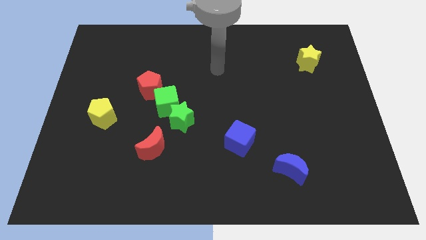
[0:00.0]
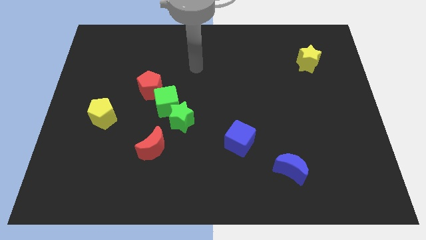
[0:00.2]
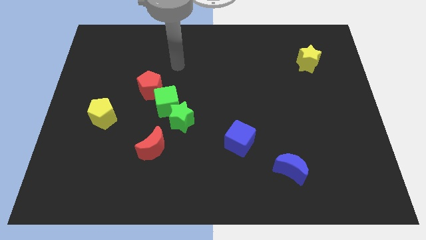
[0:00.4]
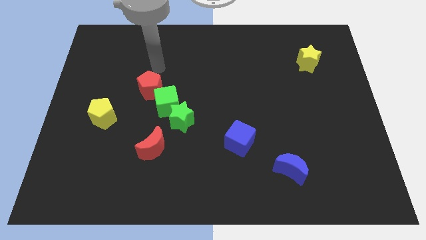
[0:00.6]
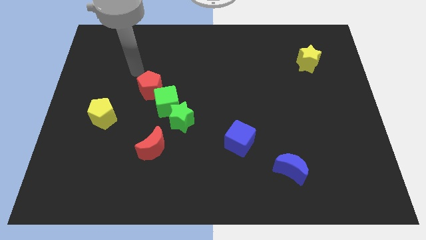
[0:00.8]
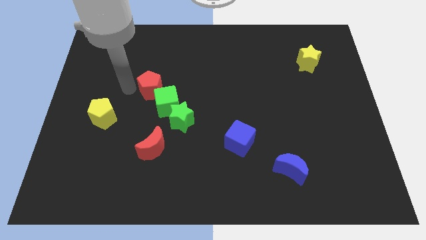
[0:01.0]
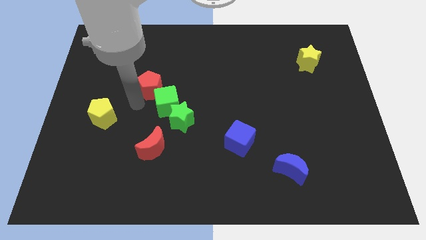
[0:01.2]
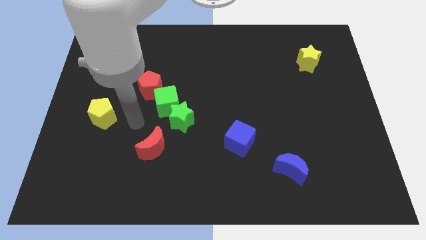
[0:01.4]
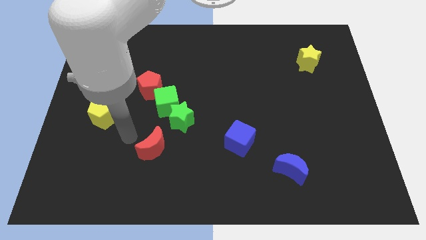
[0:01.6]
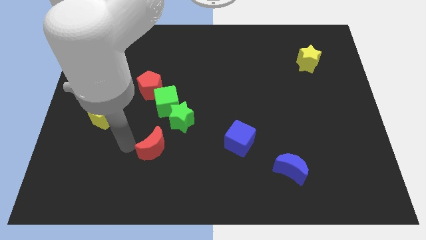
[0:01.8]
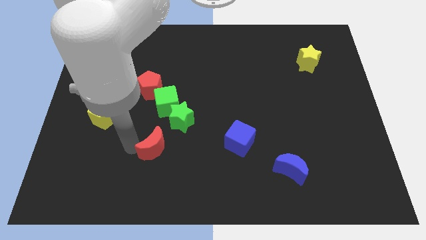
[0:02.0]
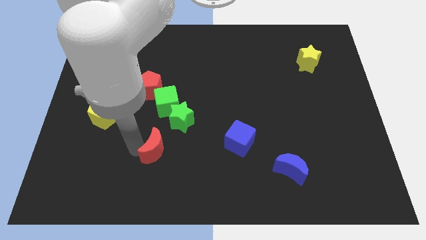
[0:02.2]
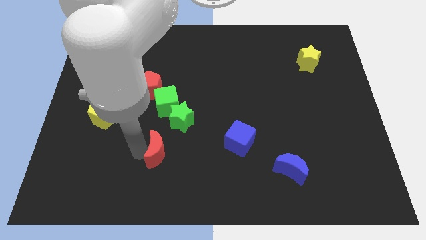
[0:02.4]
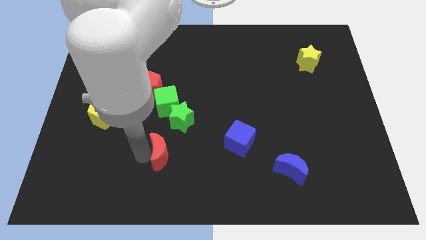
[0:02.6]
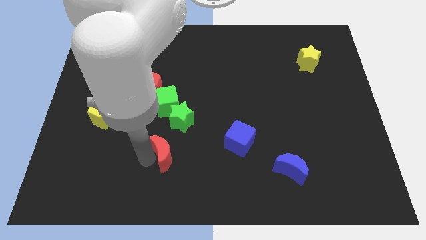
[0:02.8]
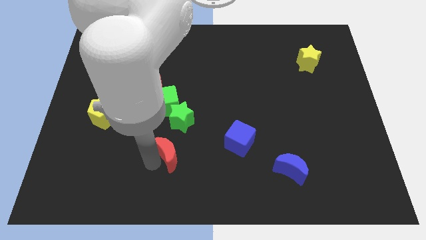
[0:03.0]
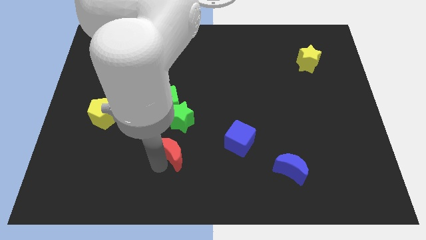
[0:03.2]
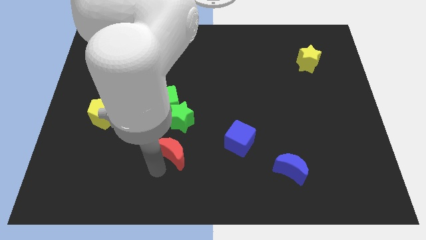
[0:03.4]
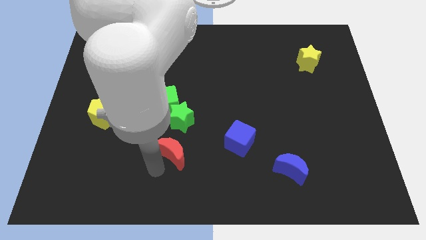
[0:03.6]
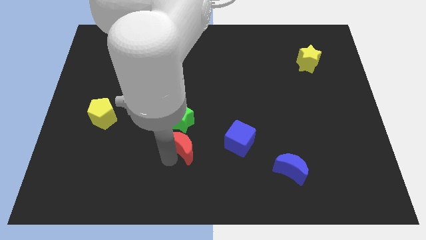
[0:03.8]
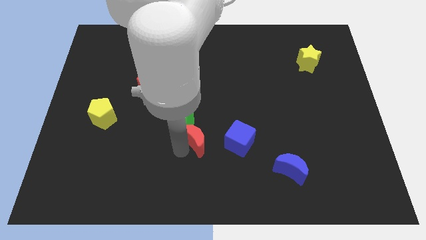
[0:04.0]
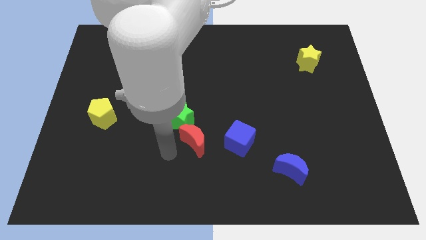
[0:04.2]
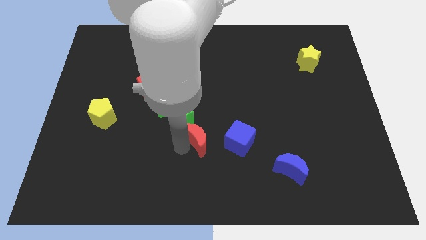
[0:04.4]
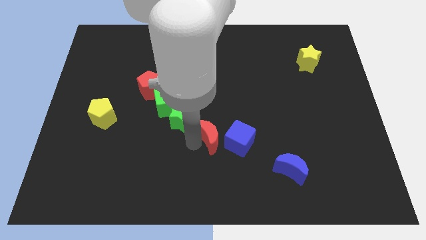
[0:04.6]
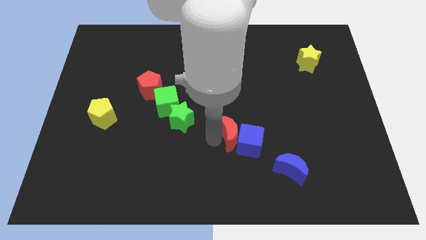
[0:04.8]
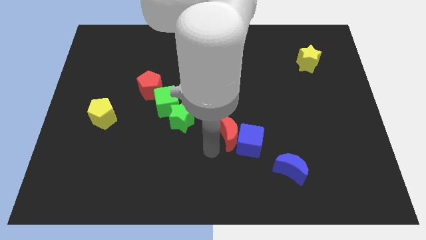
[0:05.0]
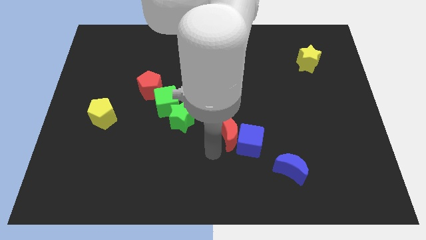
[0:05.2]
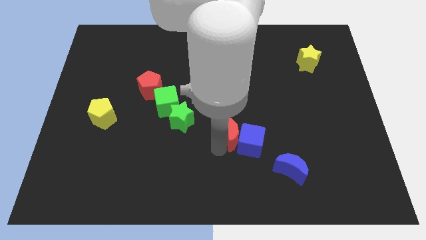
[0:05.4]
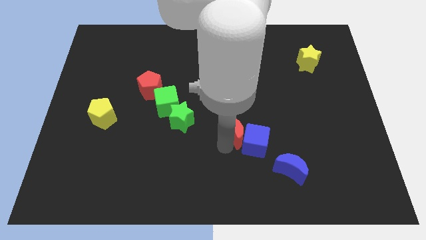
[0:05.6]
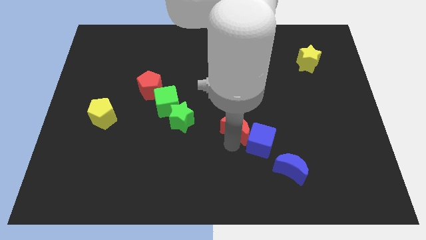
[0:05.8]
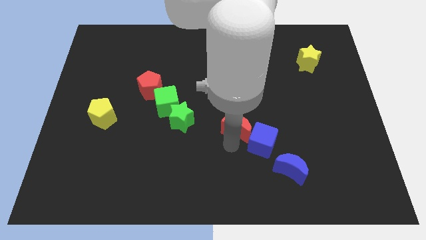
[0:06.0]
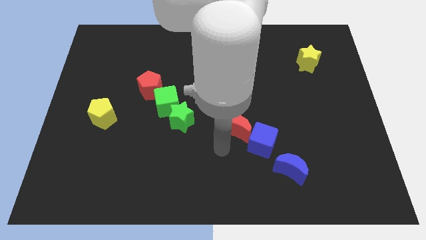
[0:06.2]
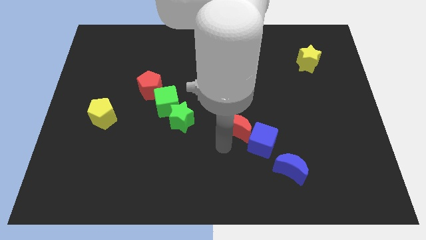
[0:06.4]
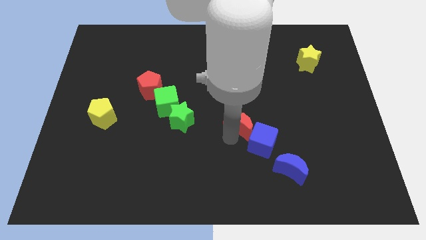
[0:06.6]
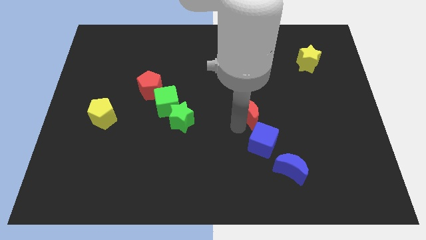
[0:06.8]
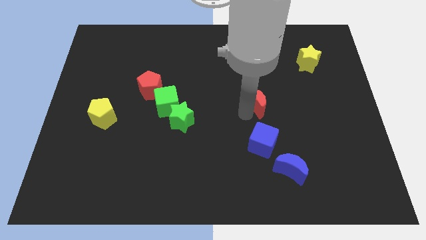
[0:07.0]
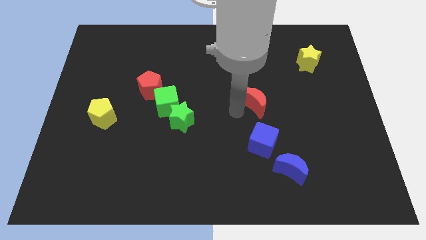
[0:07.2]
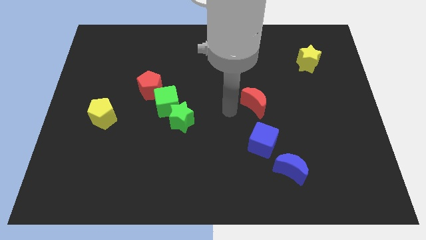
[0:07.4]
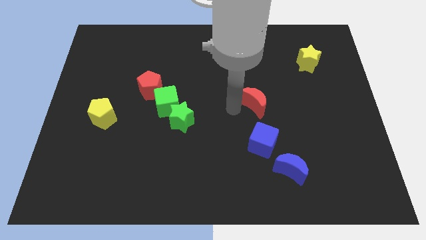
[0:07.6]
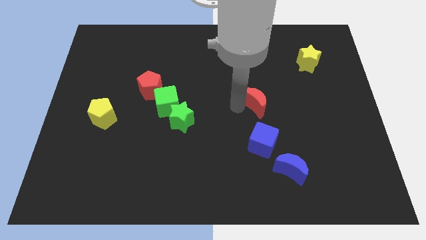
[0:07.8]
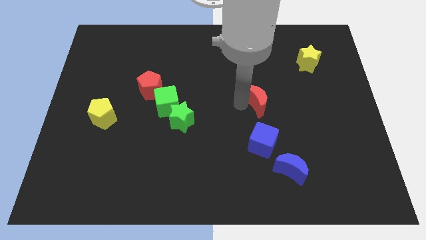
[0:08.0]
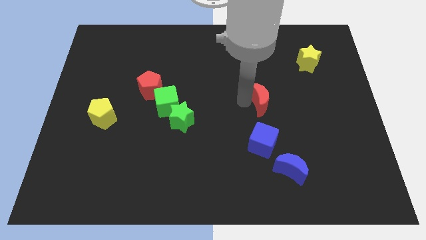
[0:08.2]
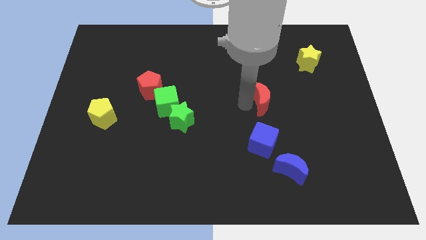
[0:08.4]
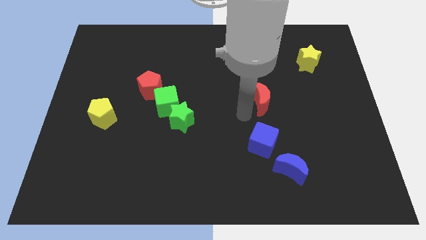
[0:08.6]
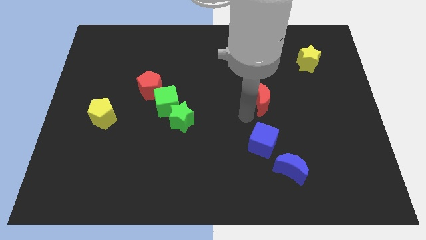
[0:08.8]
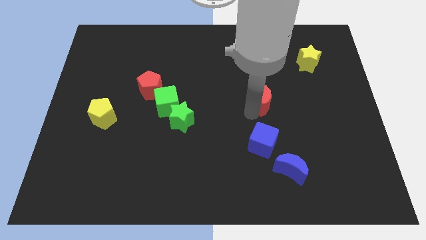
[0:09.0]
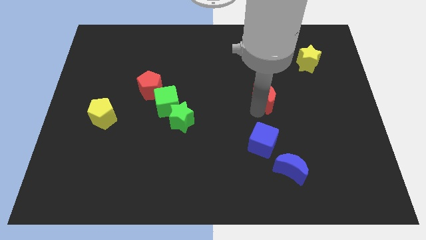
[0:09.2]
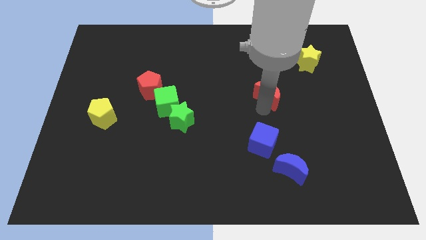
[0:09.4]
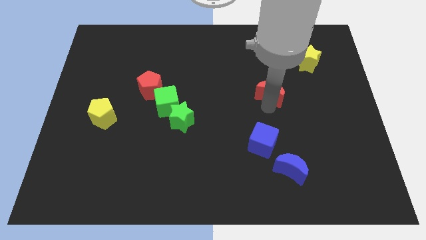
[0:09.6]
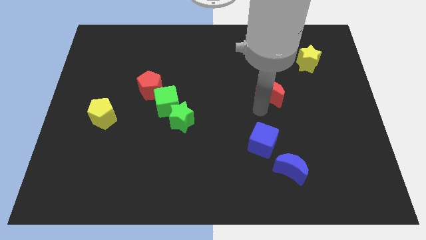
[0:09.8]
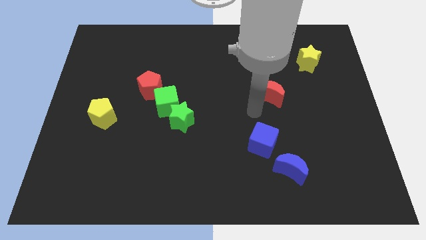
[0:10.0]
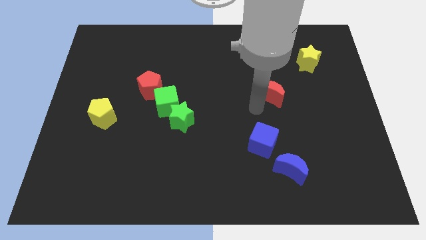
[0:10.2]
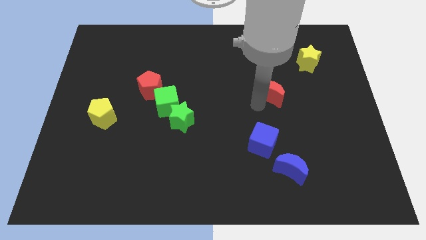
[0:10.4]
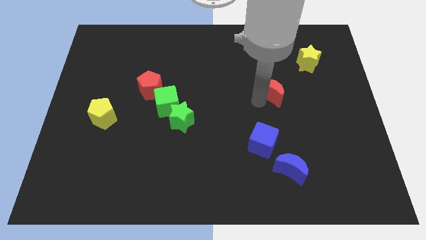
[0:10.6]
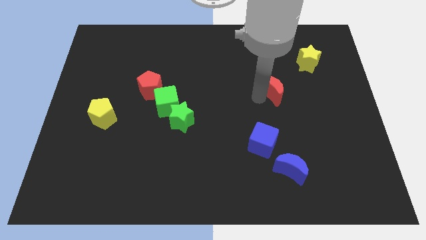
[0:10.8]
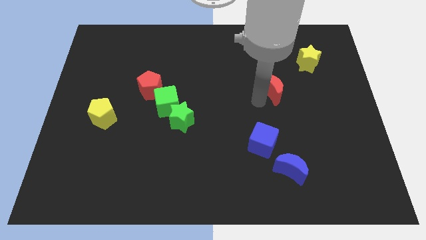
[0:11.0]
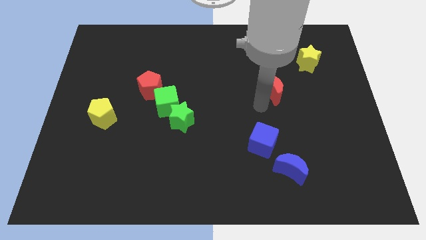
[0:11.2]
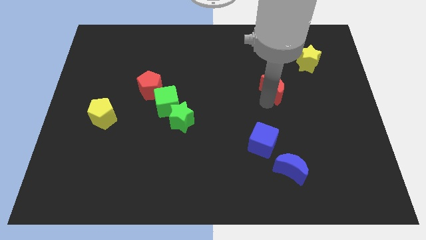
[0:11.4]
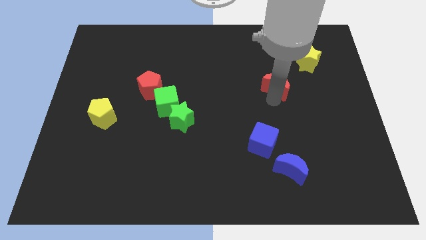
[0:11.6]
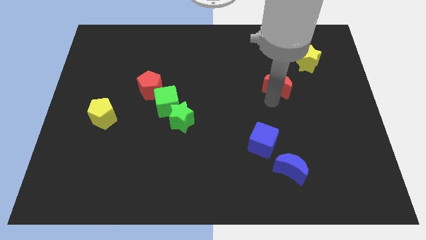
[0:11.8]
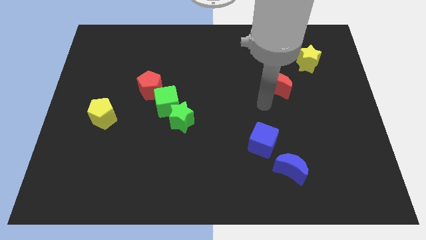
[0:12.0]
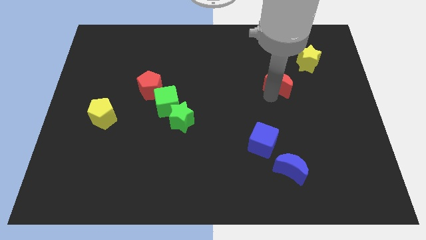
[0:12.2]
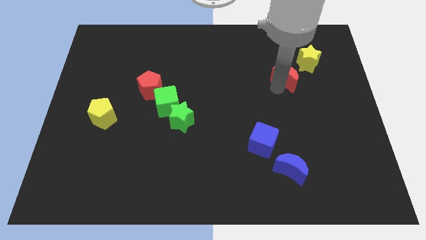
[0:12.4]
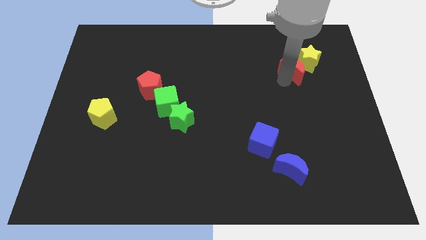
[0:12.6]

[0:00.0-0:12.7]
move the red moon to the yellow star
